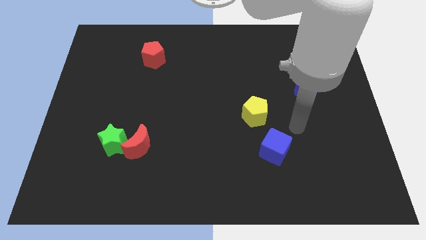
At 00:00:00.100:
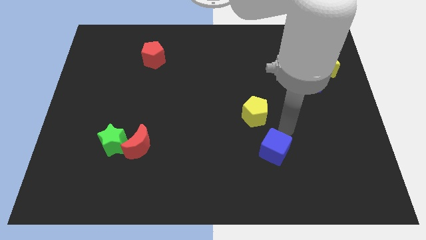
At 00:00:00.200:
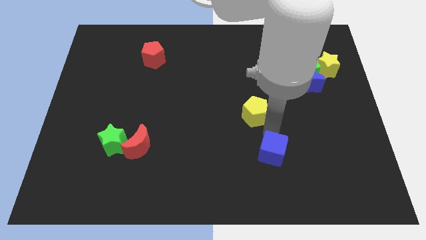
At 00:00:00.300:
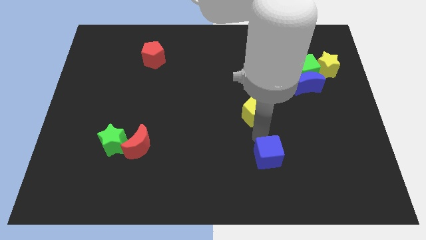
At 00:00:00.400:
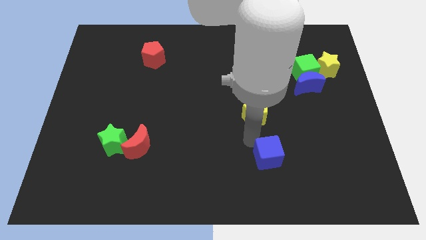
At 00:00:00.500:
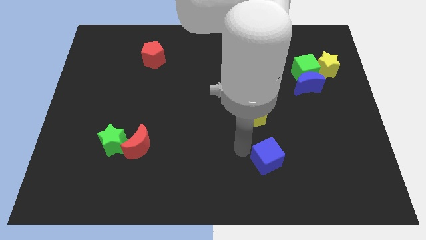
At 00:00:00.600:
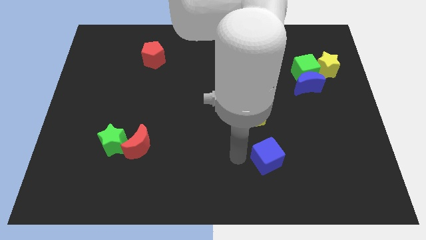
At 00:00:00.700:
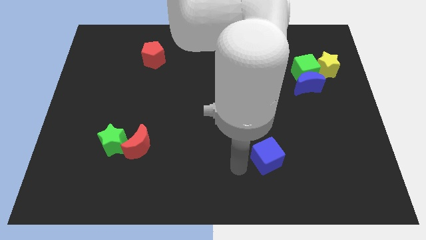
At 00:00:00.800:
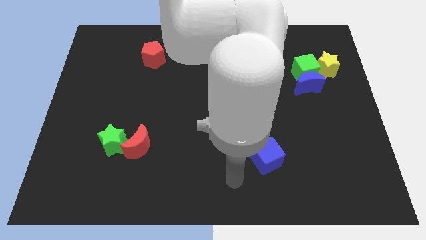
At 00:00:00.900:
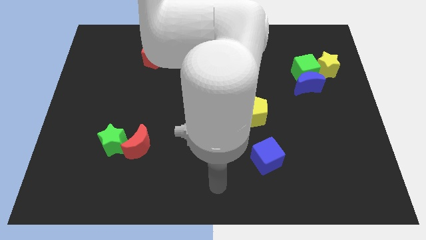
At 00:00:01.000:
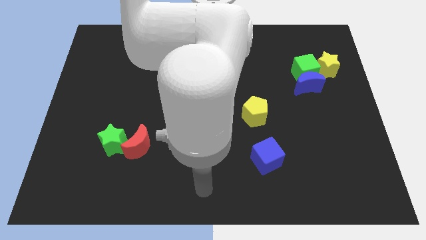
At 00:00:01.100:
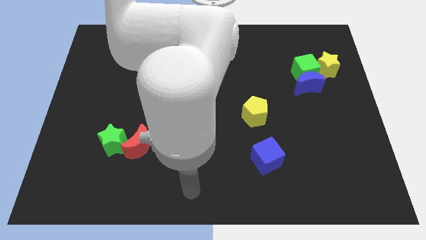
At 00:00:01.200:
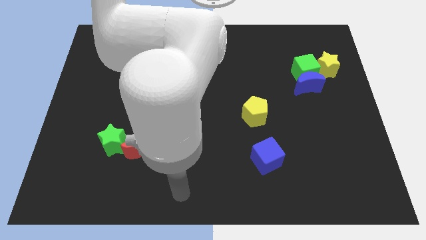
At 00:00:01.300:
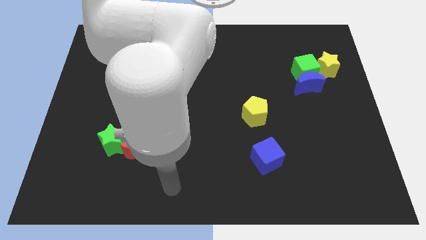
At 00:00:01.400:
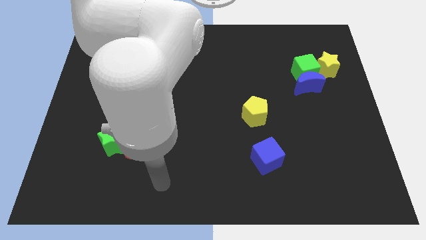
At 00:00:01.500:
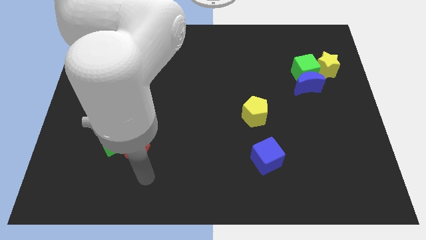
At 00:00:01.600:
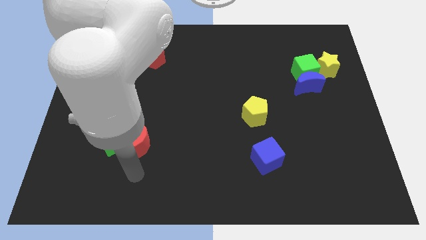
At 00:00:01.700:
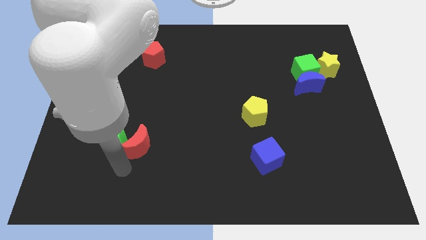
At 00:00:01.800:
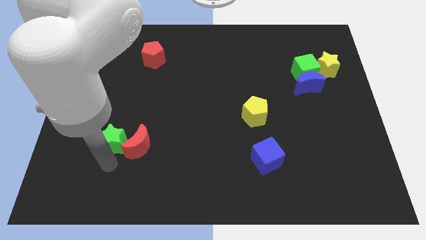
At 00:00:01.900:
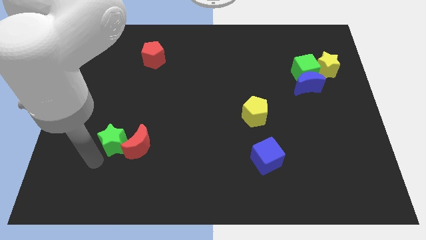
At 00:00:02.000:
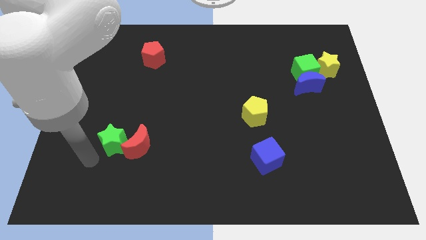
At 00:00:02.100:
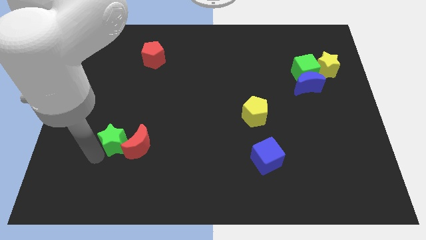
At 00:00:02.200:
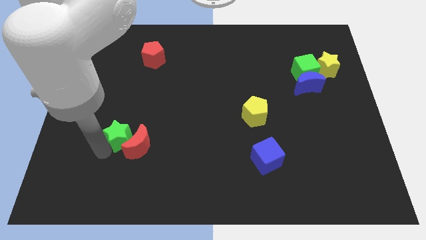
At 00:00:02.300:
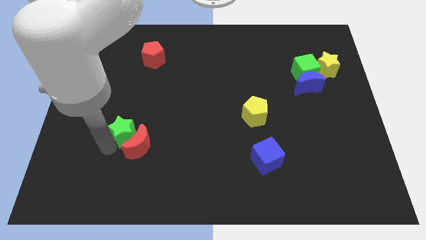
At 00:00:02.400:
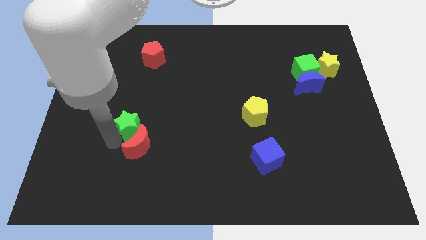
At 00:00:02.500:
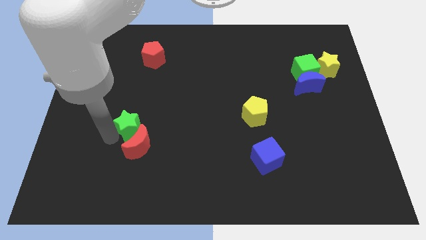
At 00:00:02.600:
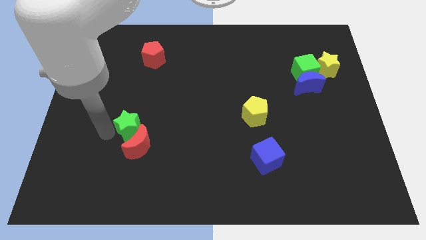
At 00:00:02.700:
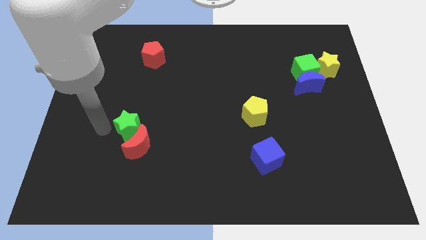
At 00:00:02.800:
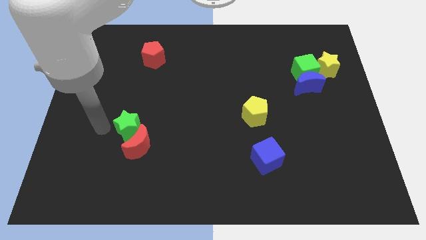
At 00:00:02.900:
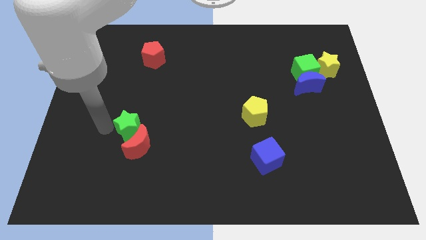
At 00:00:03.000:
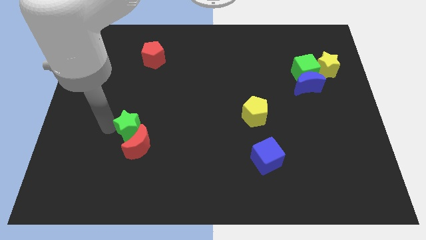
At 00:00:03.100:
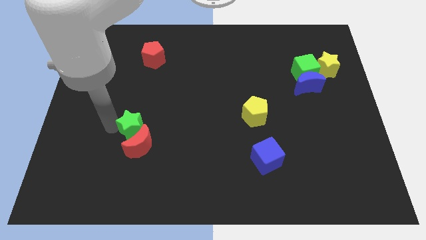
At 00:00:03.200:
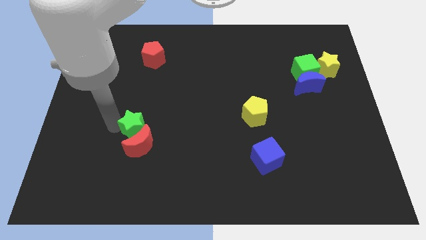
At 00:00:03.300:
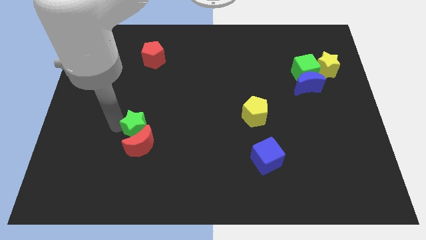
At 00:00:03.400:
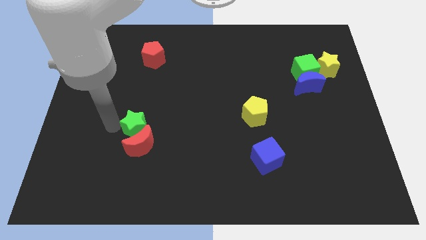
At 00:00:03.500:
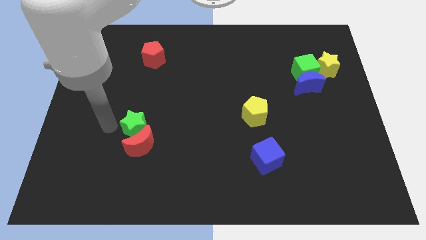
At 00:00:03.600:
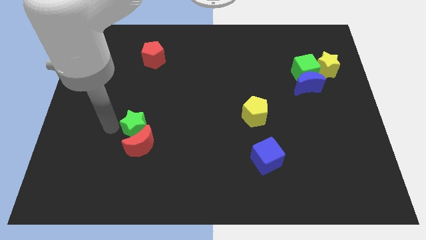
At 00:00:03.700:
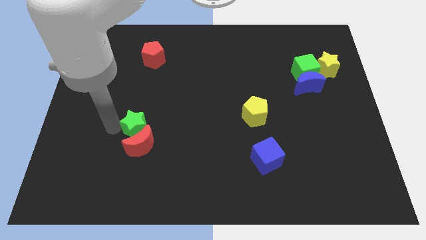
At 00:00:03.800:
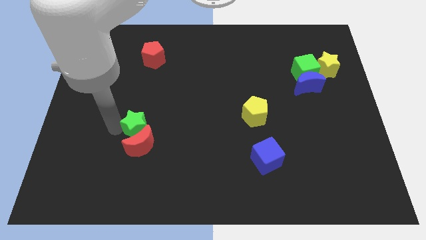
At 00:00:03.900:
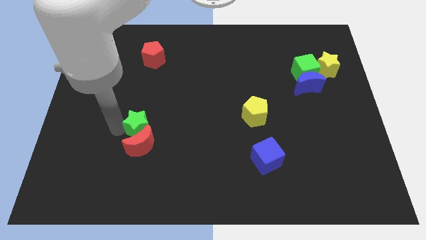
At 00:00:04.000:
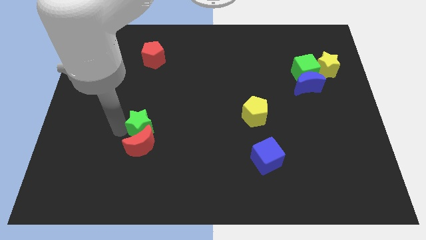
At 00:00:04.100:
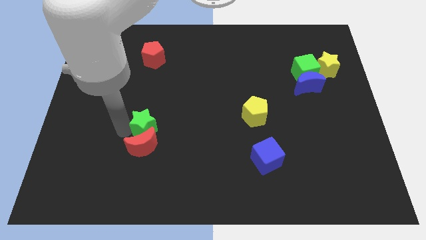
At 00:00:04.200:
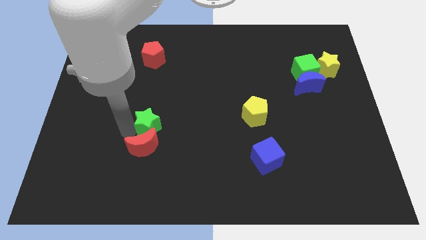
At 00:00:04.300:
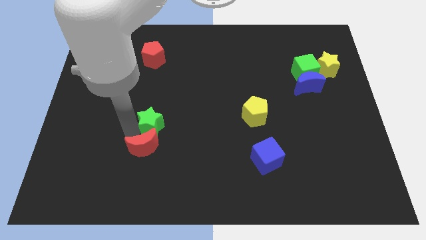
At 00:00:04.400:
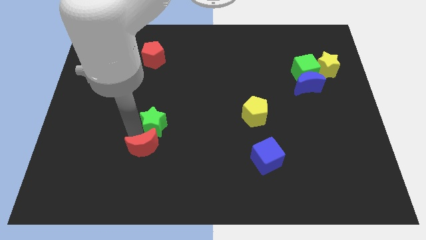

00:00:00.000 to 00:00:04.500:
slightly move the green star right

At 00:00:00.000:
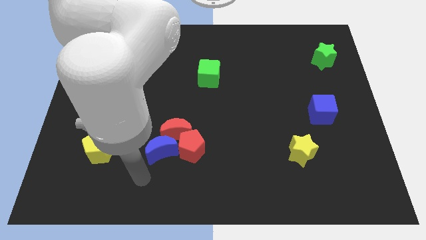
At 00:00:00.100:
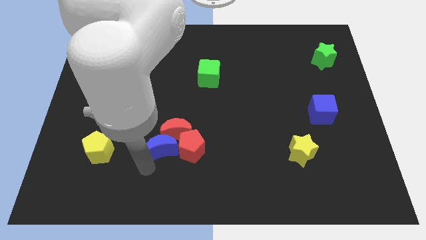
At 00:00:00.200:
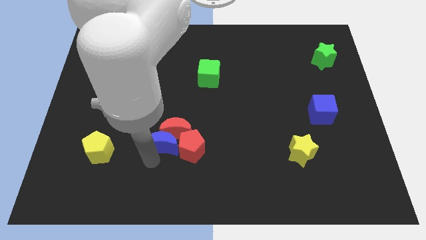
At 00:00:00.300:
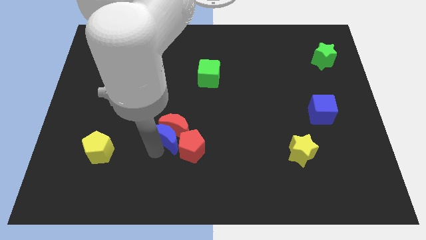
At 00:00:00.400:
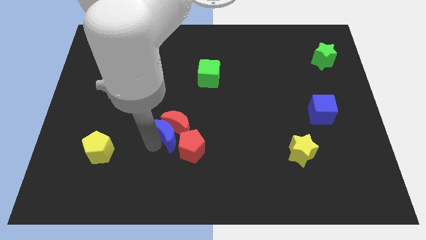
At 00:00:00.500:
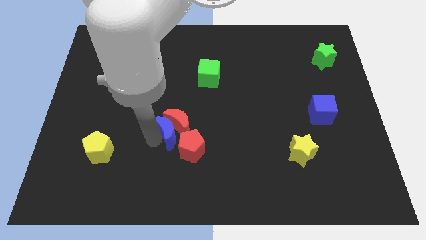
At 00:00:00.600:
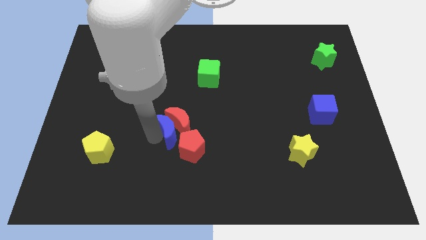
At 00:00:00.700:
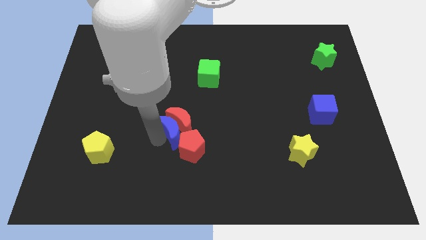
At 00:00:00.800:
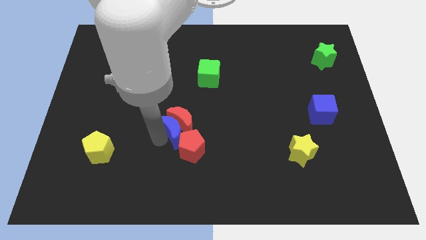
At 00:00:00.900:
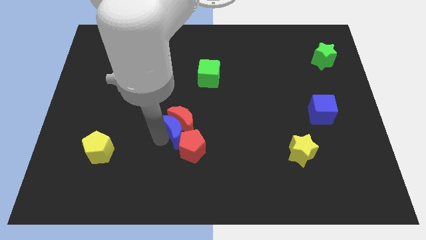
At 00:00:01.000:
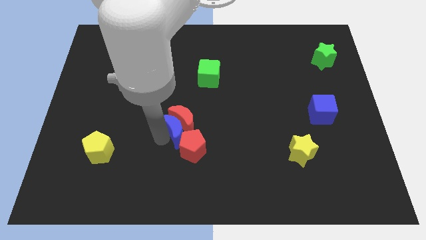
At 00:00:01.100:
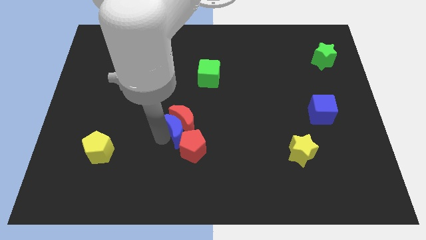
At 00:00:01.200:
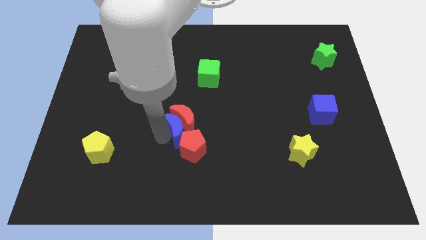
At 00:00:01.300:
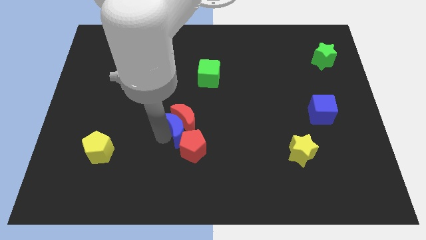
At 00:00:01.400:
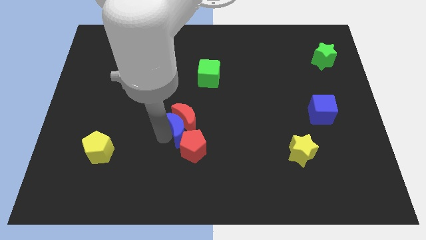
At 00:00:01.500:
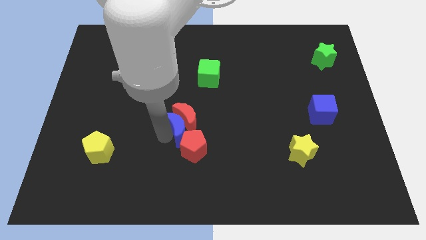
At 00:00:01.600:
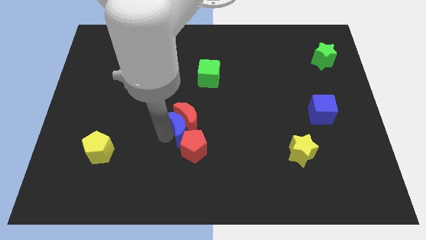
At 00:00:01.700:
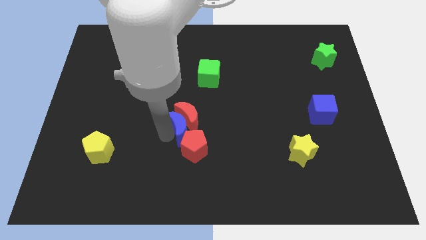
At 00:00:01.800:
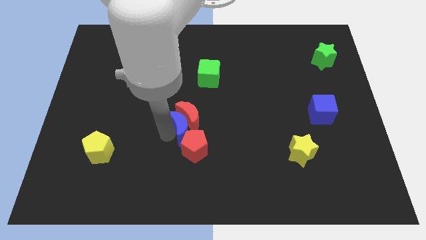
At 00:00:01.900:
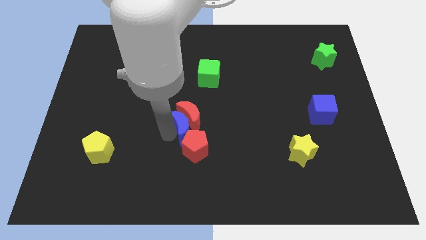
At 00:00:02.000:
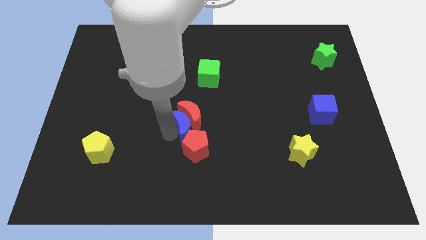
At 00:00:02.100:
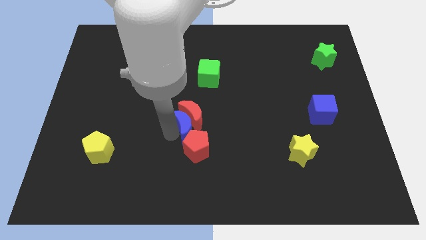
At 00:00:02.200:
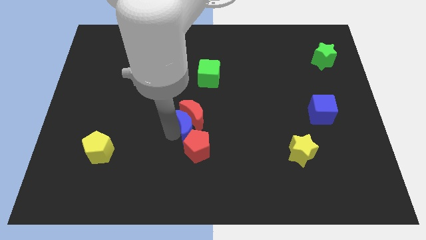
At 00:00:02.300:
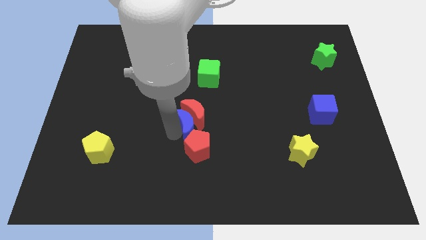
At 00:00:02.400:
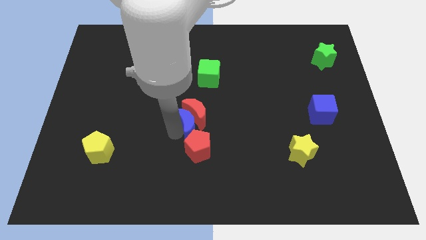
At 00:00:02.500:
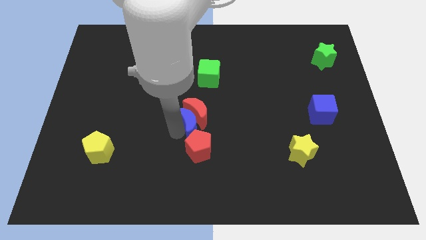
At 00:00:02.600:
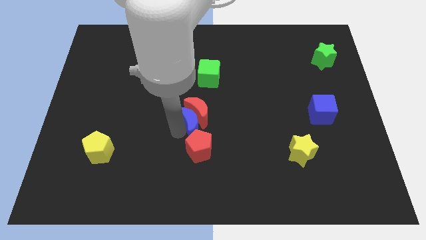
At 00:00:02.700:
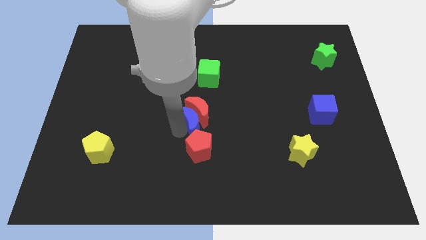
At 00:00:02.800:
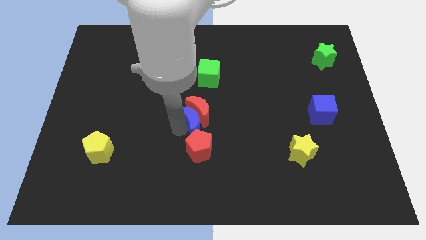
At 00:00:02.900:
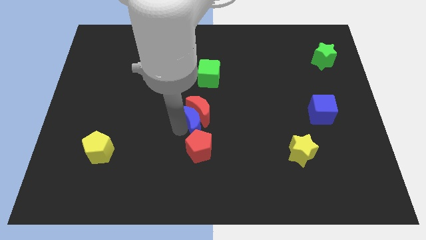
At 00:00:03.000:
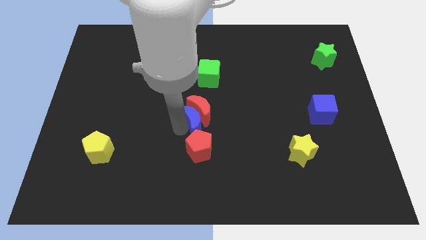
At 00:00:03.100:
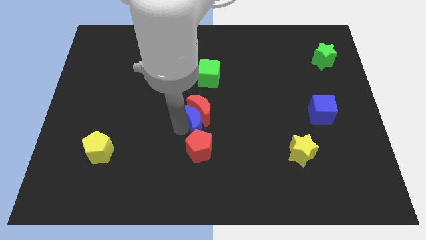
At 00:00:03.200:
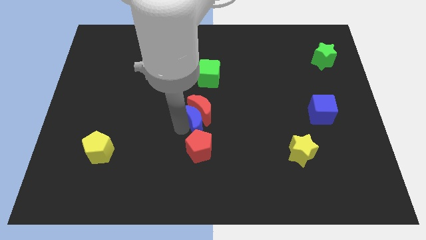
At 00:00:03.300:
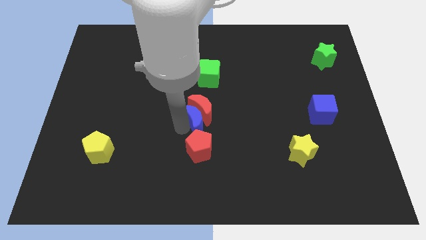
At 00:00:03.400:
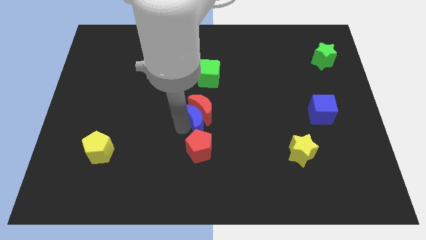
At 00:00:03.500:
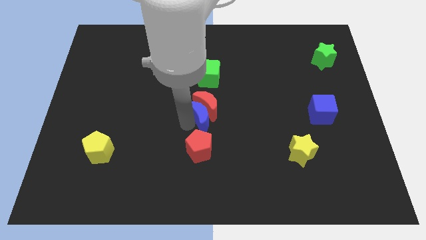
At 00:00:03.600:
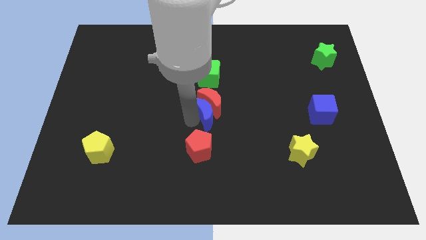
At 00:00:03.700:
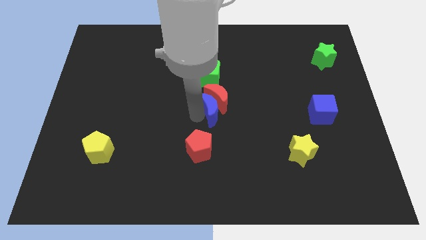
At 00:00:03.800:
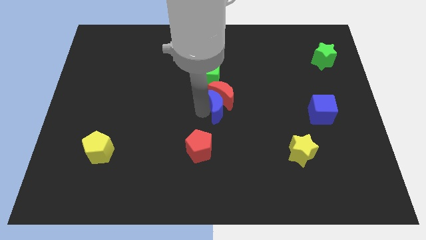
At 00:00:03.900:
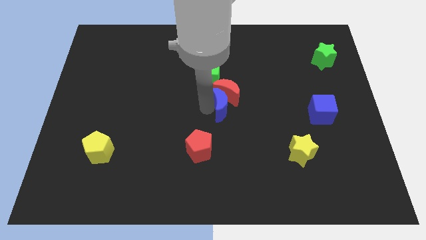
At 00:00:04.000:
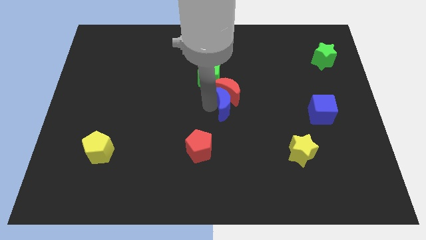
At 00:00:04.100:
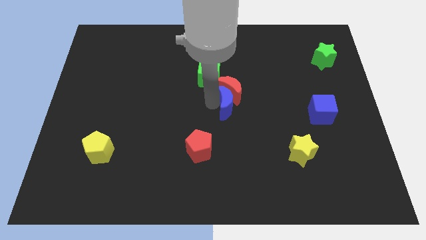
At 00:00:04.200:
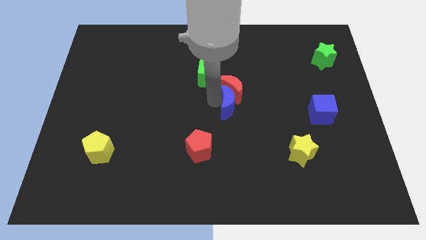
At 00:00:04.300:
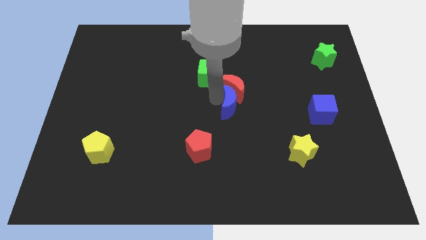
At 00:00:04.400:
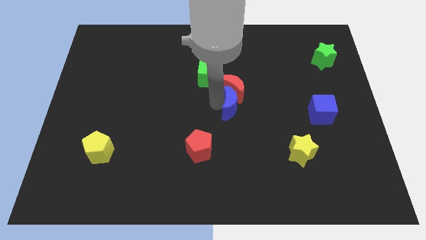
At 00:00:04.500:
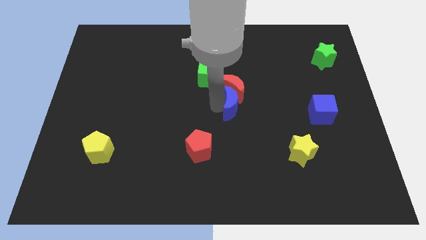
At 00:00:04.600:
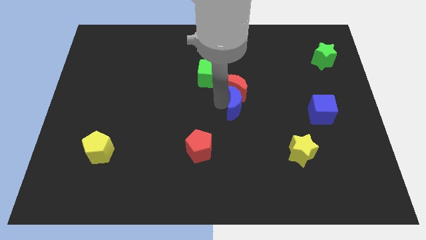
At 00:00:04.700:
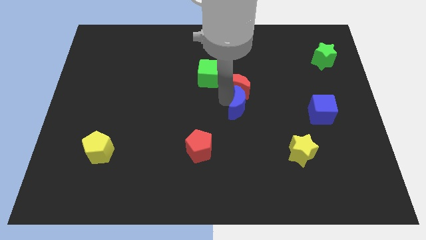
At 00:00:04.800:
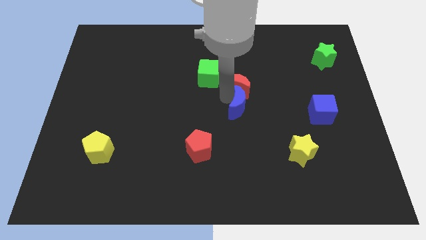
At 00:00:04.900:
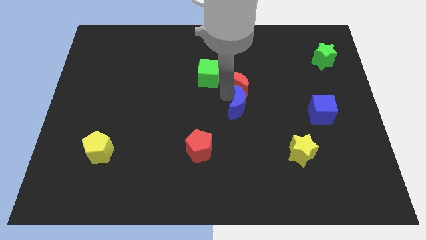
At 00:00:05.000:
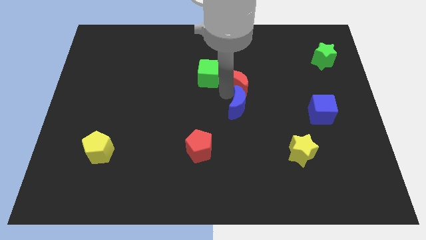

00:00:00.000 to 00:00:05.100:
move the red moon upwards and then right
